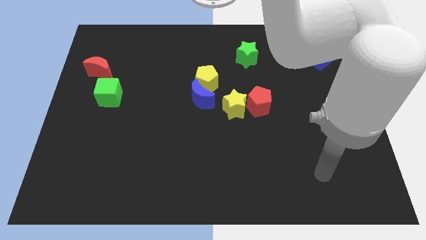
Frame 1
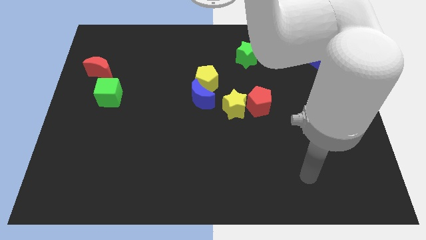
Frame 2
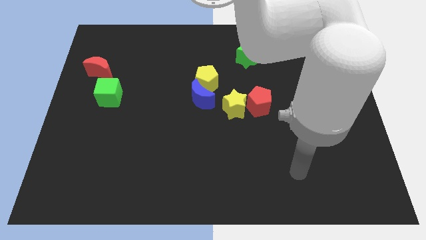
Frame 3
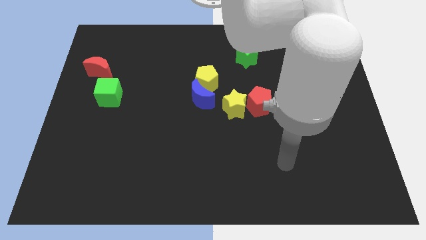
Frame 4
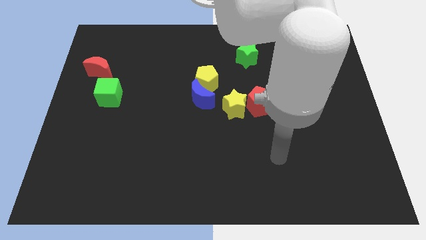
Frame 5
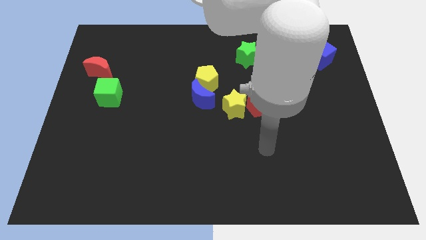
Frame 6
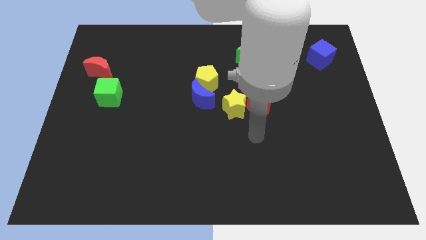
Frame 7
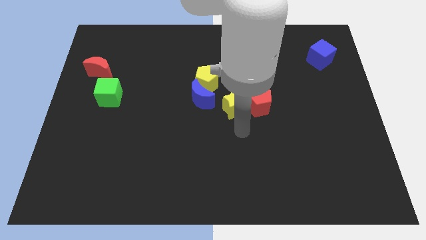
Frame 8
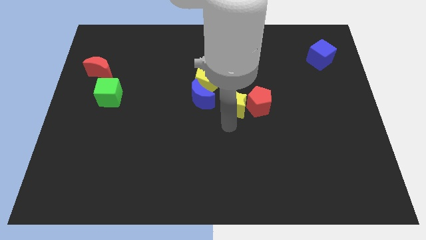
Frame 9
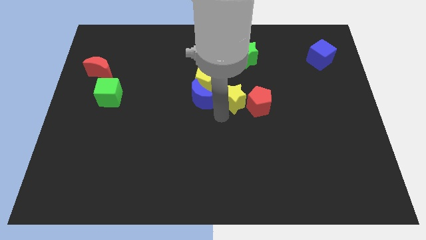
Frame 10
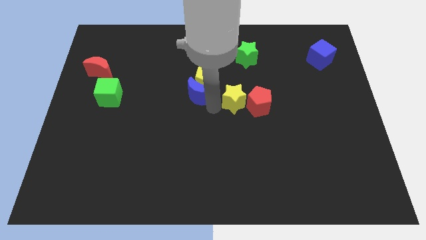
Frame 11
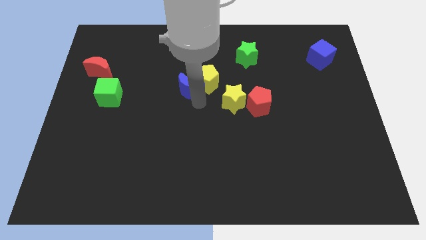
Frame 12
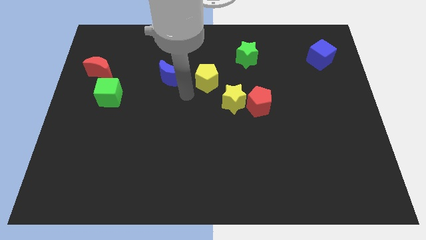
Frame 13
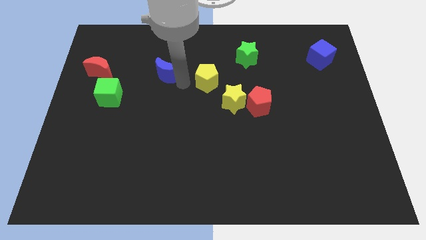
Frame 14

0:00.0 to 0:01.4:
pull the yellow pentagon apart from the blue moon

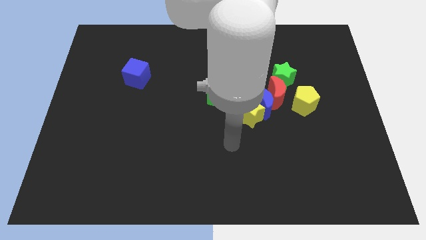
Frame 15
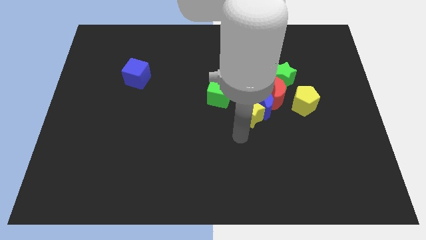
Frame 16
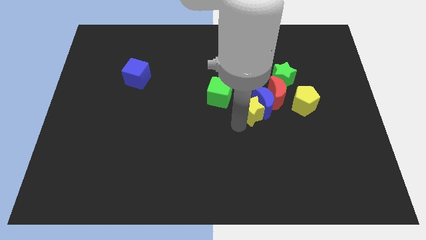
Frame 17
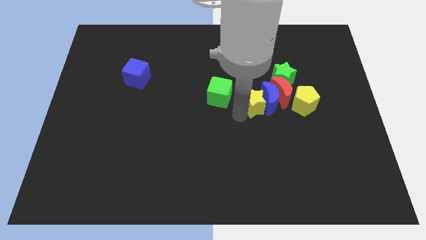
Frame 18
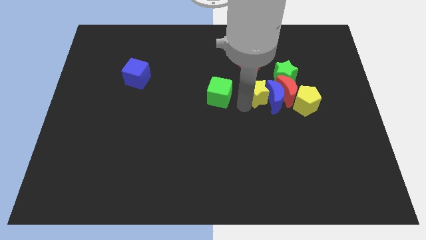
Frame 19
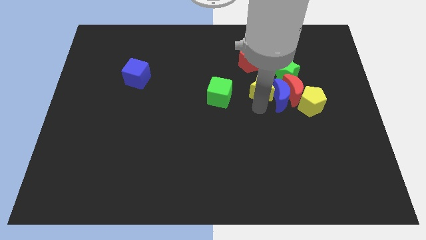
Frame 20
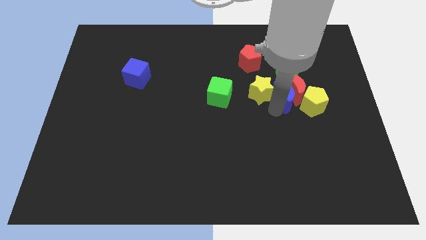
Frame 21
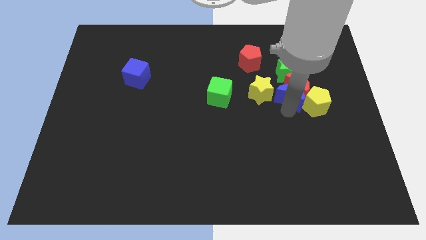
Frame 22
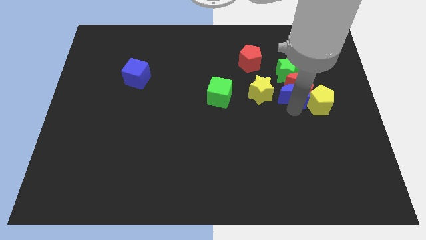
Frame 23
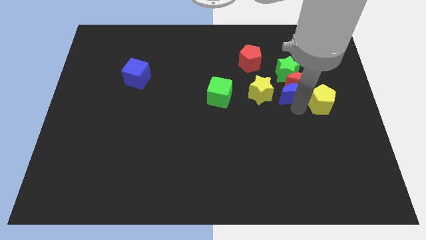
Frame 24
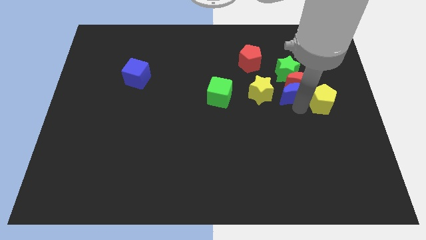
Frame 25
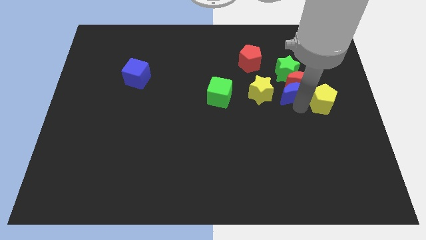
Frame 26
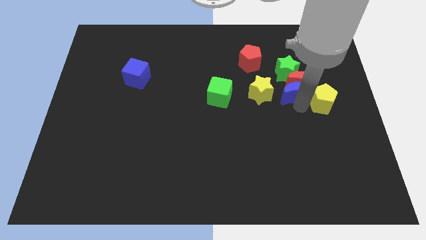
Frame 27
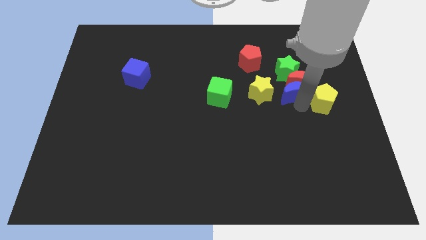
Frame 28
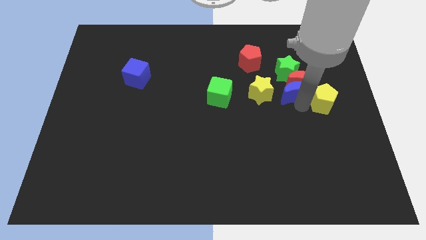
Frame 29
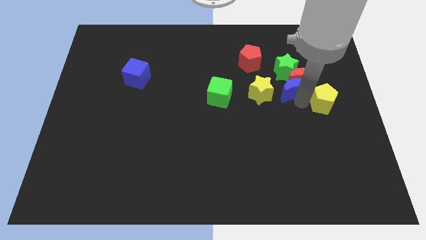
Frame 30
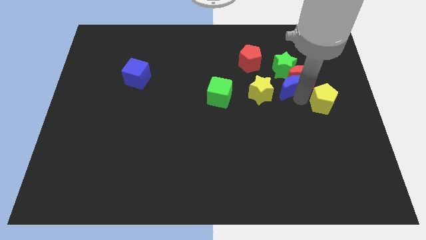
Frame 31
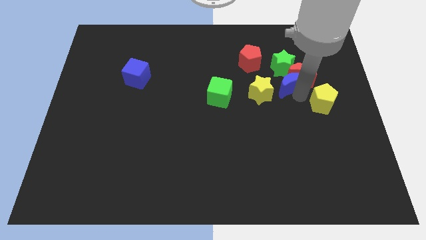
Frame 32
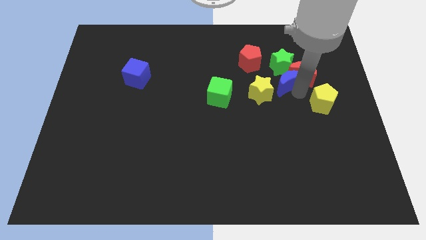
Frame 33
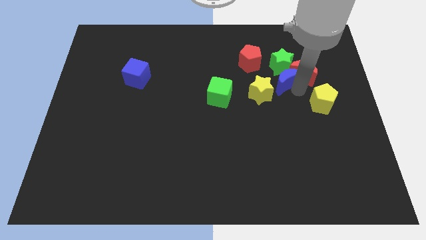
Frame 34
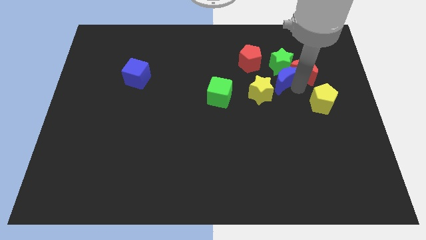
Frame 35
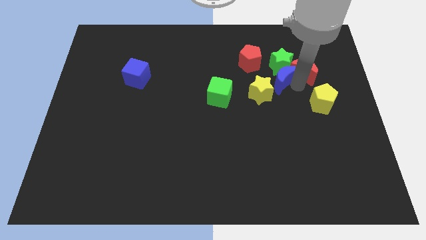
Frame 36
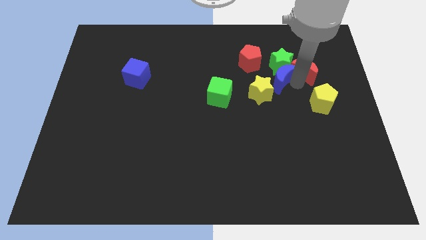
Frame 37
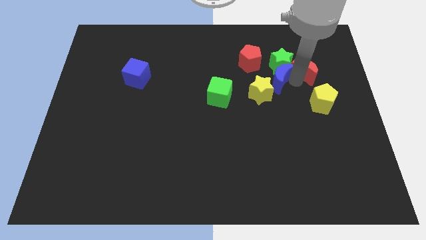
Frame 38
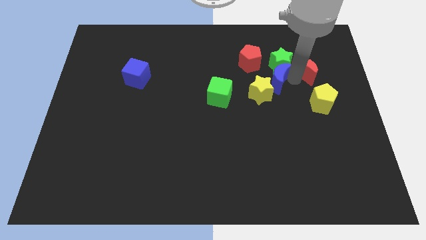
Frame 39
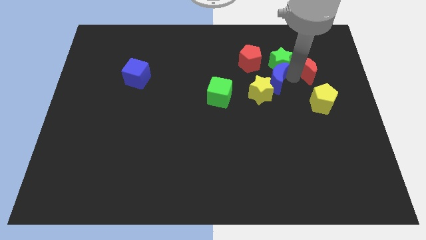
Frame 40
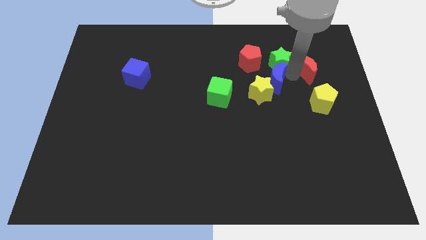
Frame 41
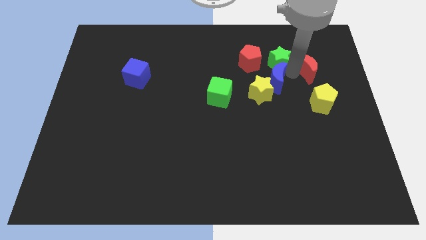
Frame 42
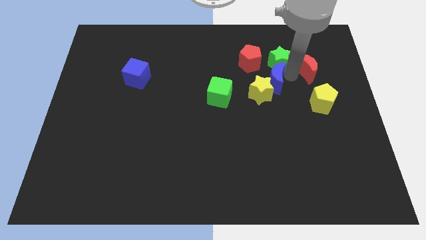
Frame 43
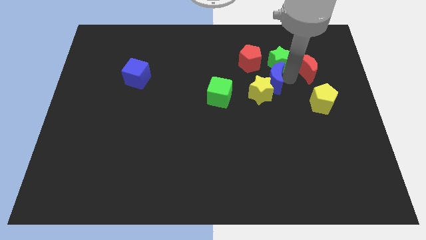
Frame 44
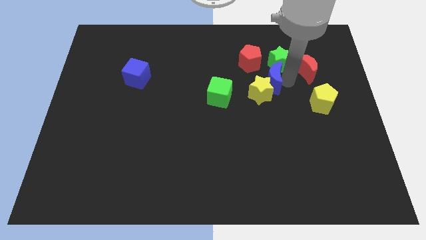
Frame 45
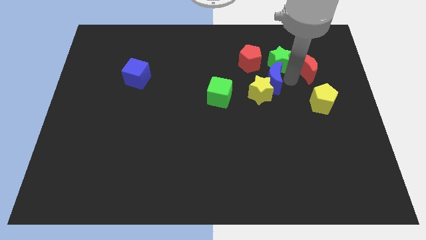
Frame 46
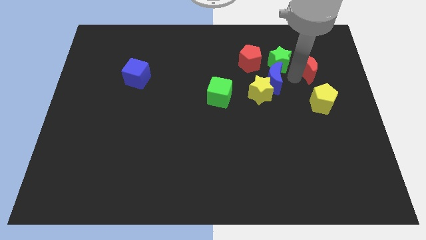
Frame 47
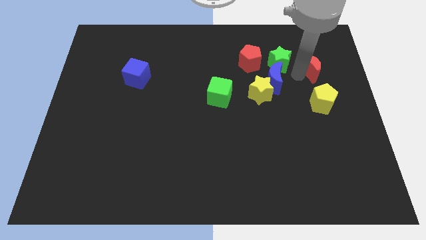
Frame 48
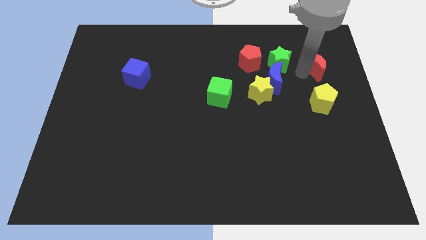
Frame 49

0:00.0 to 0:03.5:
move the red moon away from the group of blocks

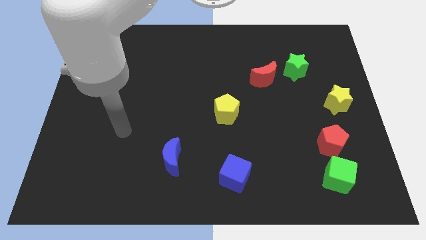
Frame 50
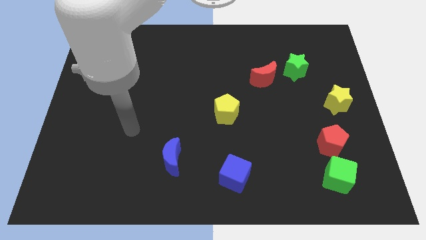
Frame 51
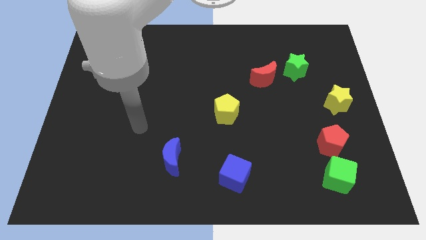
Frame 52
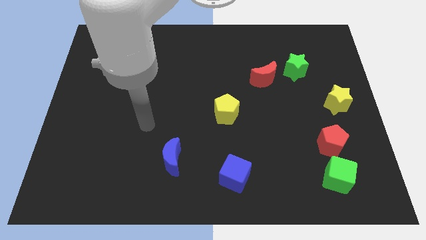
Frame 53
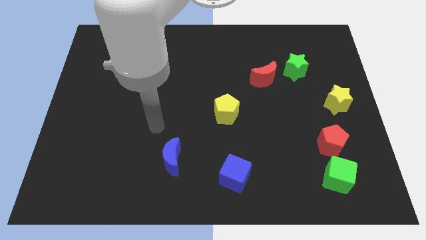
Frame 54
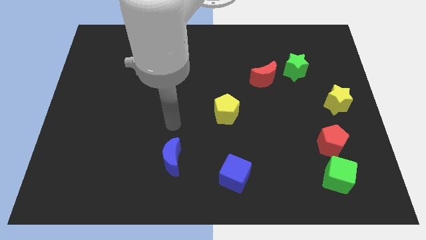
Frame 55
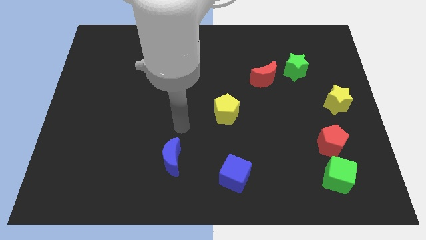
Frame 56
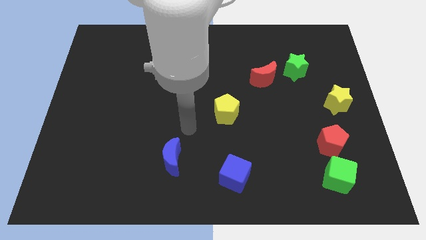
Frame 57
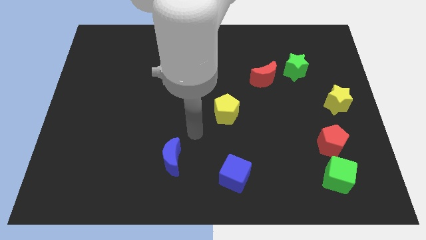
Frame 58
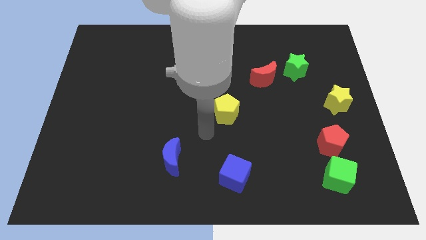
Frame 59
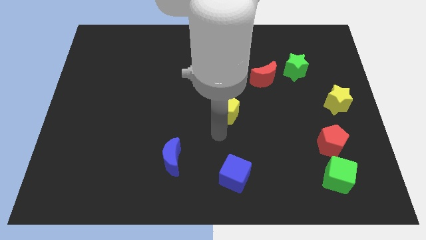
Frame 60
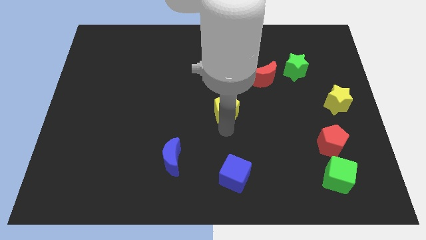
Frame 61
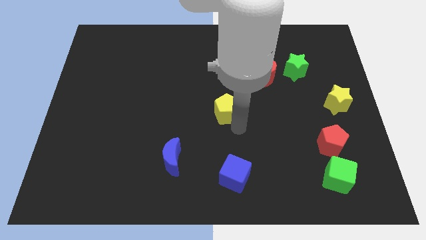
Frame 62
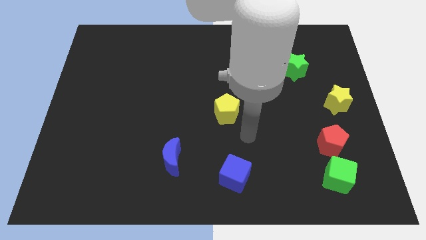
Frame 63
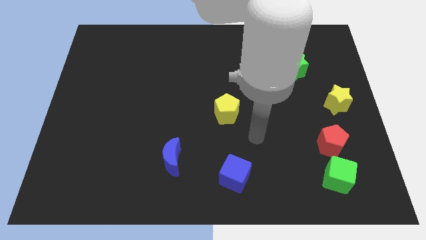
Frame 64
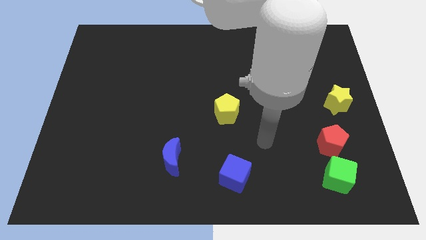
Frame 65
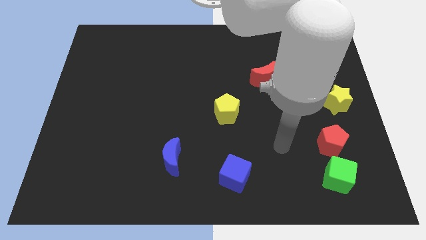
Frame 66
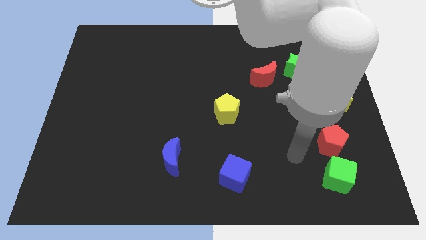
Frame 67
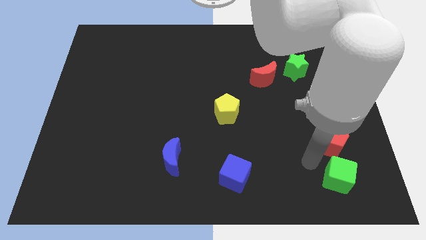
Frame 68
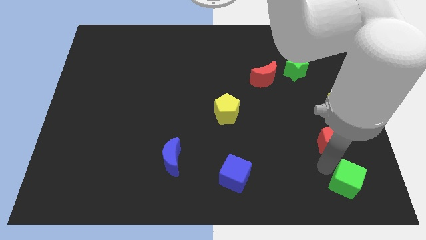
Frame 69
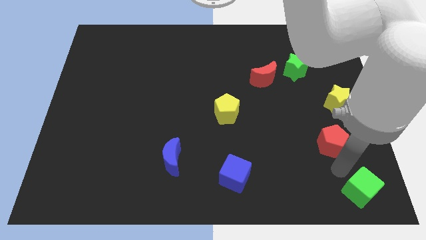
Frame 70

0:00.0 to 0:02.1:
move the red pentagon away from the green cube

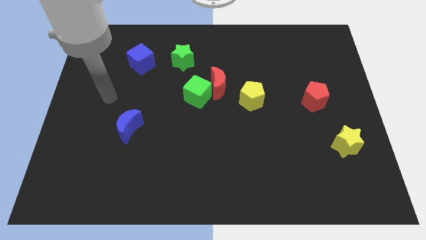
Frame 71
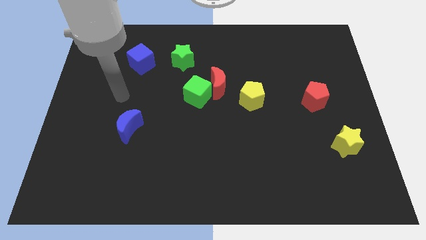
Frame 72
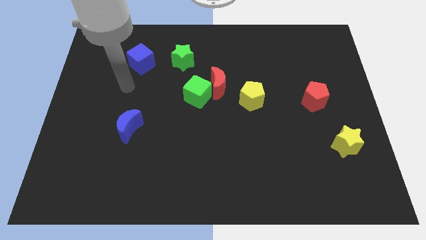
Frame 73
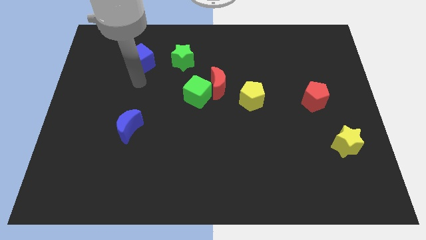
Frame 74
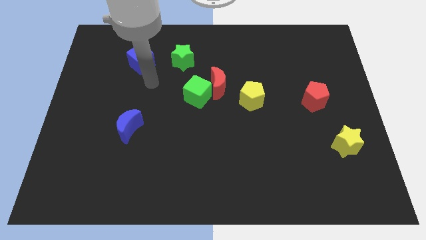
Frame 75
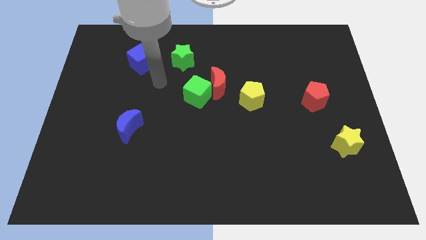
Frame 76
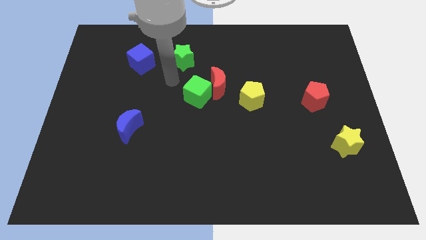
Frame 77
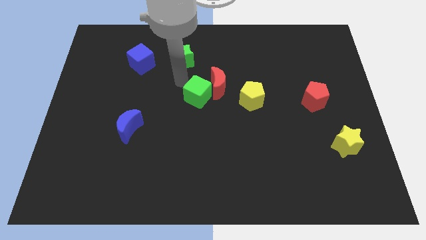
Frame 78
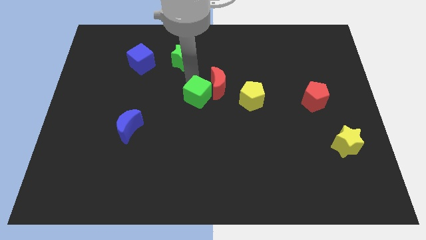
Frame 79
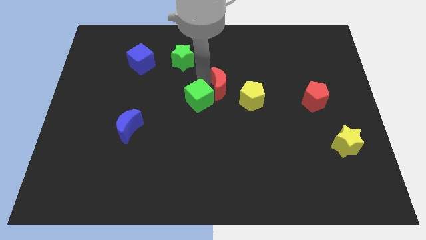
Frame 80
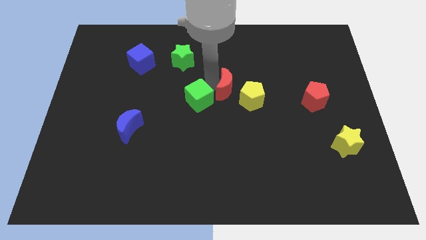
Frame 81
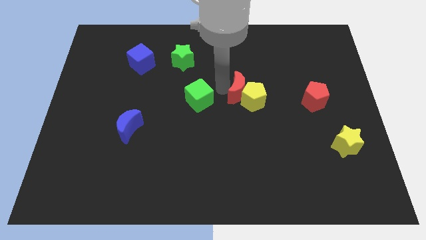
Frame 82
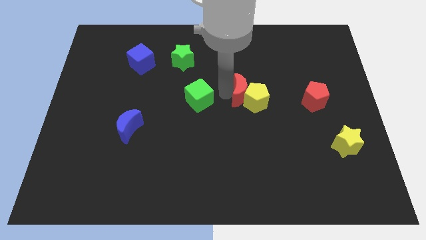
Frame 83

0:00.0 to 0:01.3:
separate the green cube from the red moon

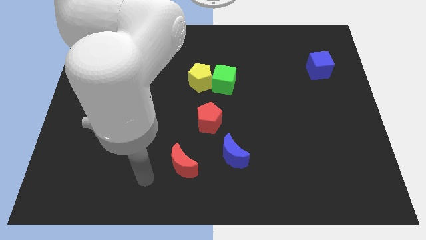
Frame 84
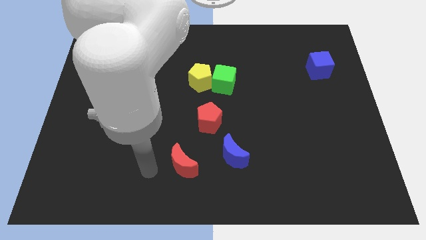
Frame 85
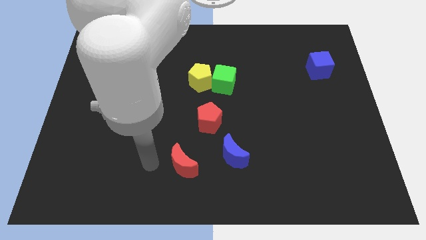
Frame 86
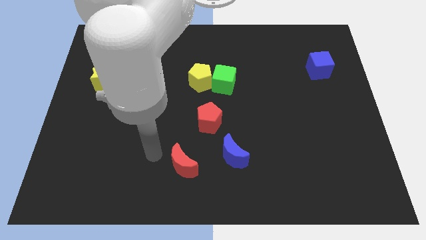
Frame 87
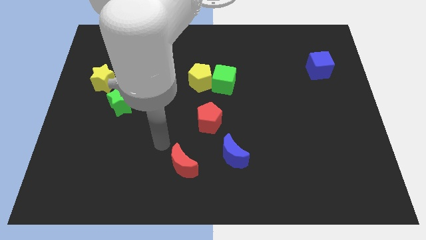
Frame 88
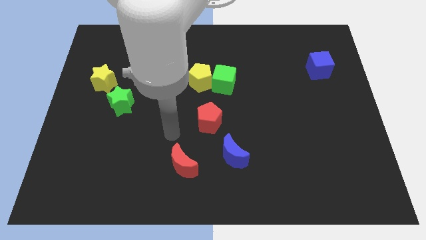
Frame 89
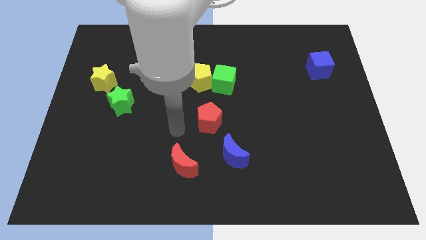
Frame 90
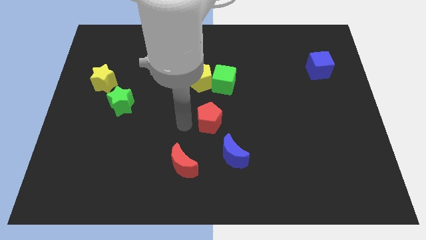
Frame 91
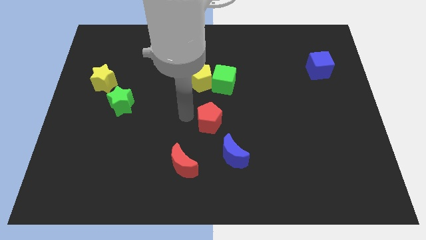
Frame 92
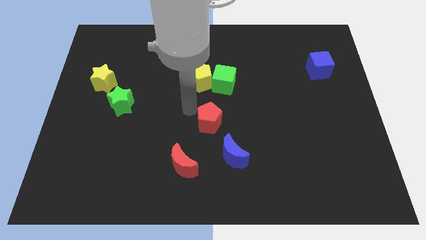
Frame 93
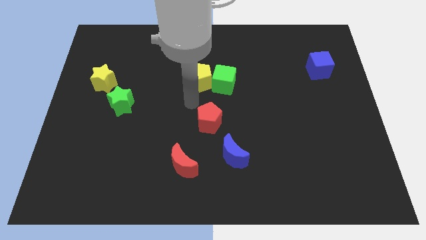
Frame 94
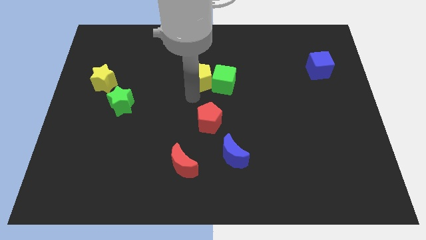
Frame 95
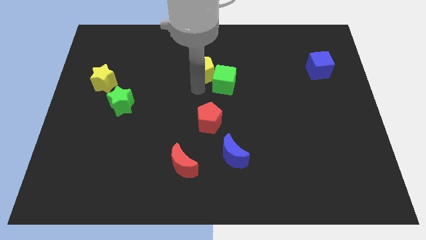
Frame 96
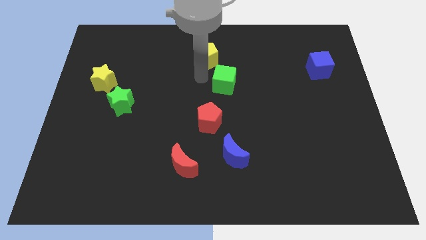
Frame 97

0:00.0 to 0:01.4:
move the green cube away from the yellow pentagon
